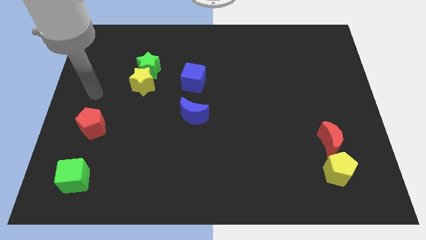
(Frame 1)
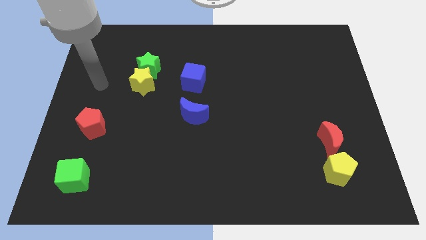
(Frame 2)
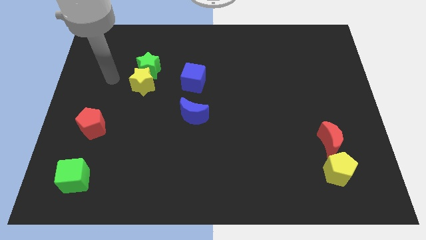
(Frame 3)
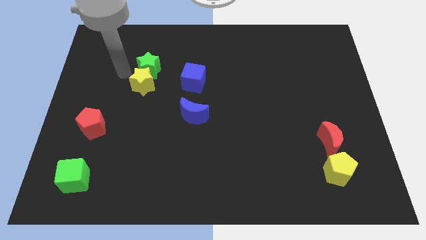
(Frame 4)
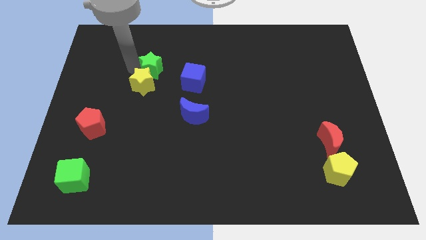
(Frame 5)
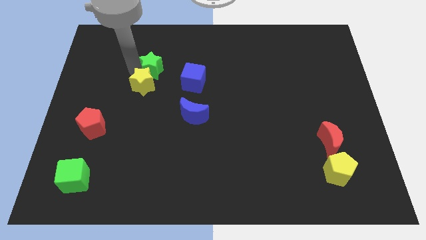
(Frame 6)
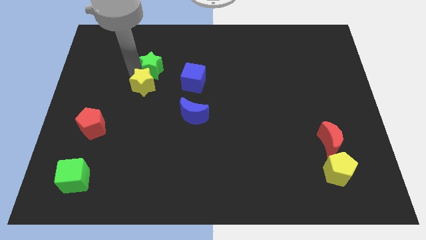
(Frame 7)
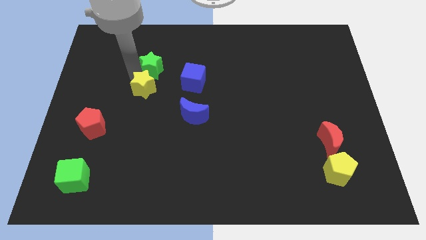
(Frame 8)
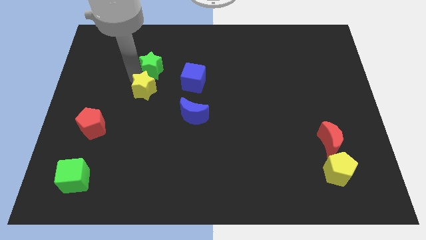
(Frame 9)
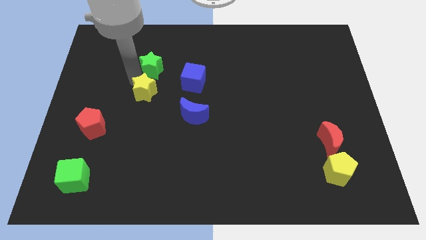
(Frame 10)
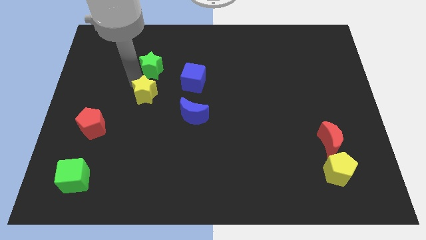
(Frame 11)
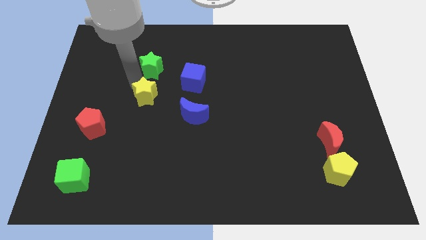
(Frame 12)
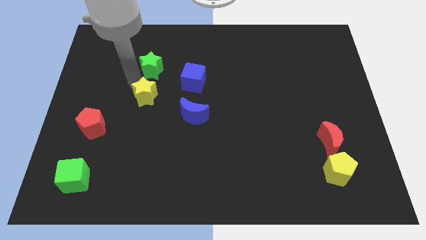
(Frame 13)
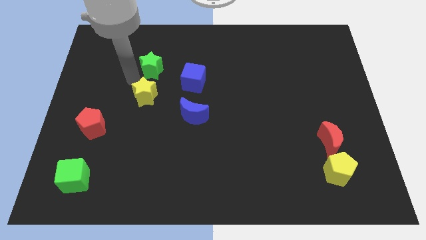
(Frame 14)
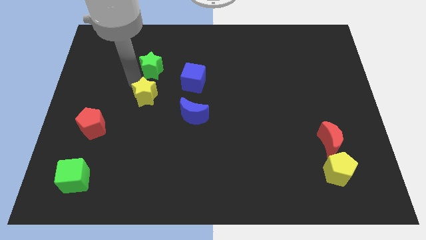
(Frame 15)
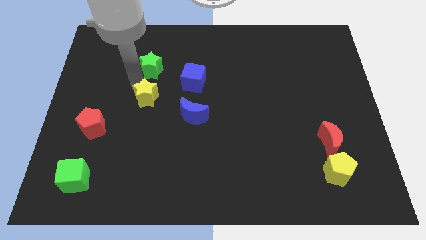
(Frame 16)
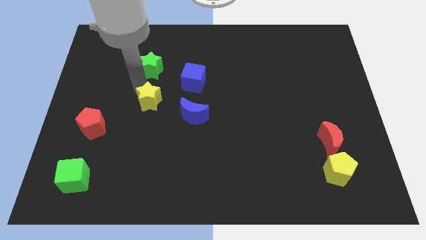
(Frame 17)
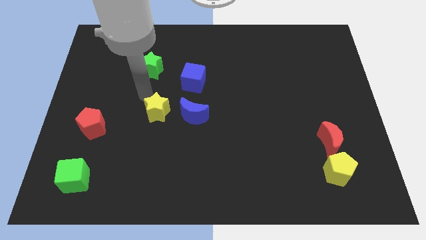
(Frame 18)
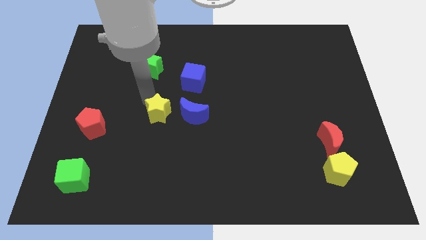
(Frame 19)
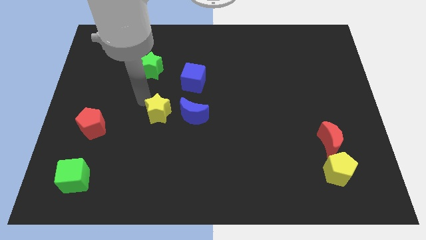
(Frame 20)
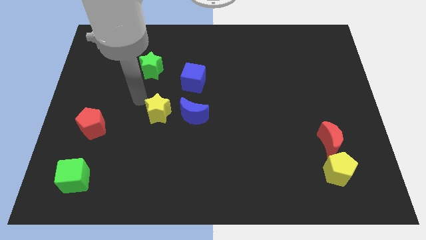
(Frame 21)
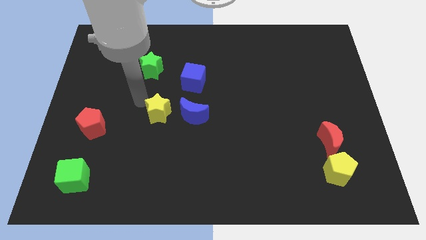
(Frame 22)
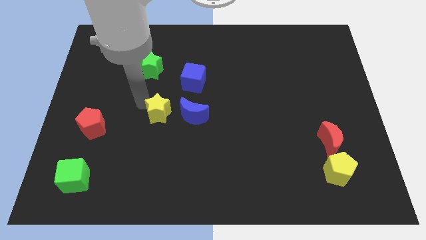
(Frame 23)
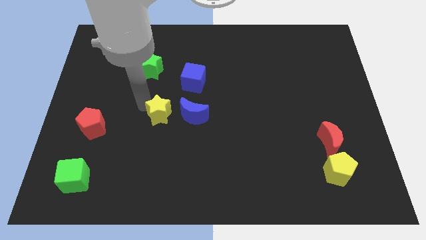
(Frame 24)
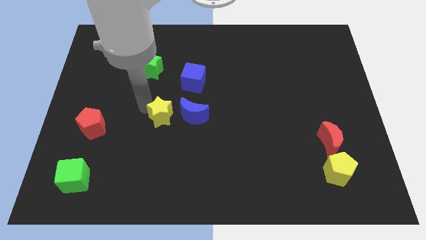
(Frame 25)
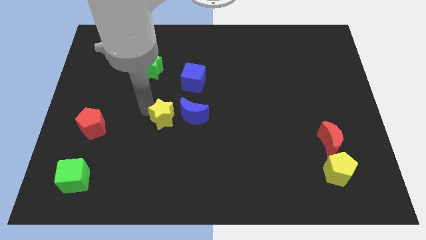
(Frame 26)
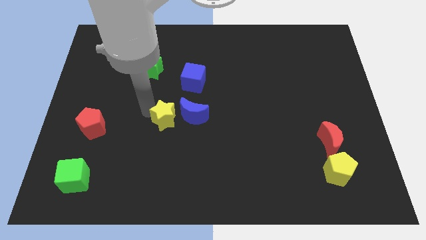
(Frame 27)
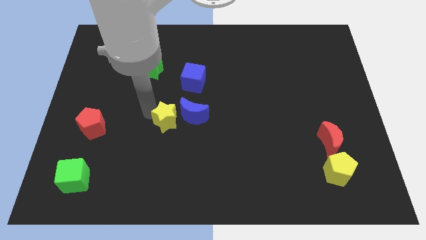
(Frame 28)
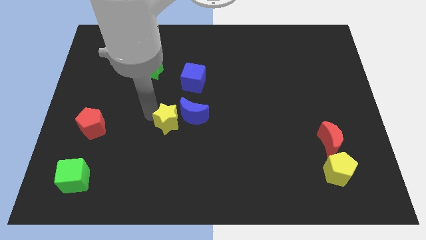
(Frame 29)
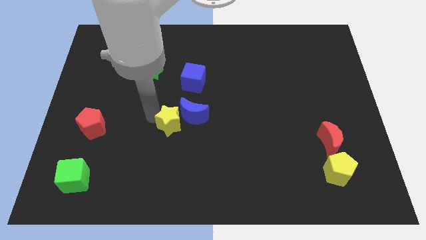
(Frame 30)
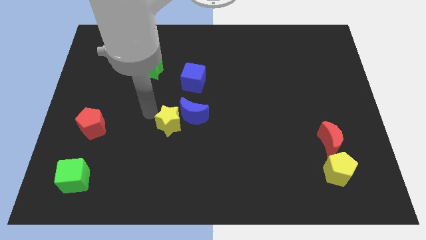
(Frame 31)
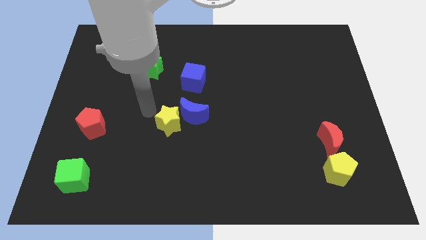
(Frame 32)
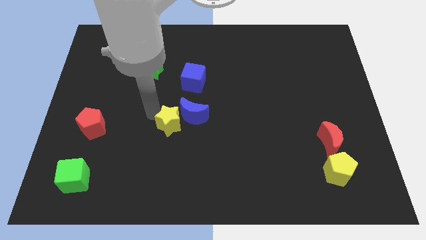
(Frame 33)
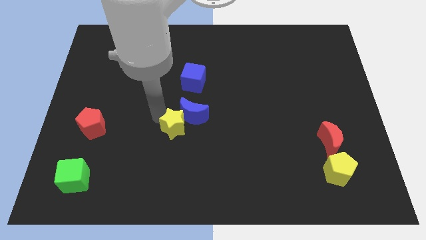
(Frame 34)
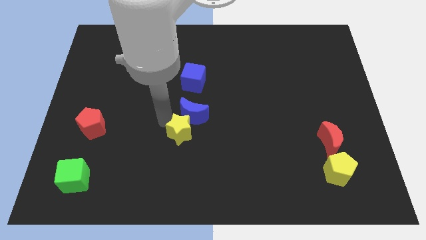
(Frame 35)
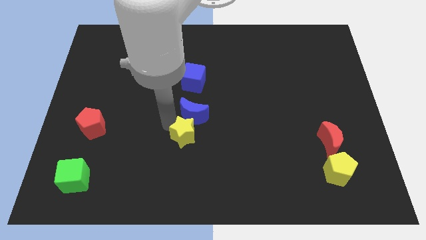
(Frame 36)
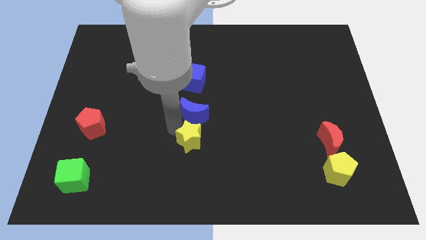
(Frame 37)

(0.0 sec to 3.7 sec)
move the yellow star downwards and right

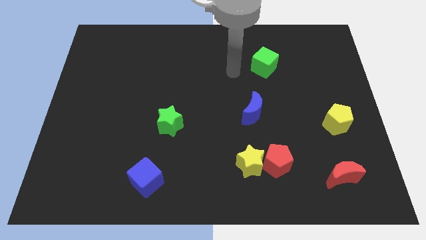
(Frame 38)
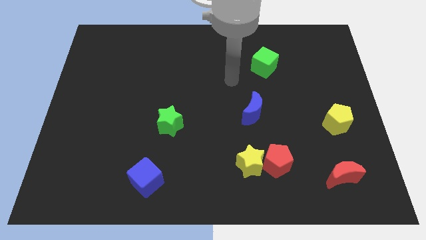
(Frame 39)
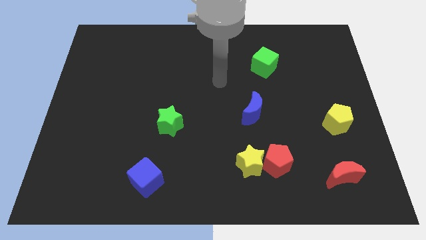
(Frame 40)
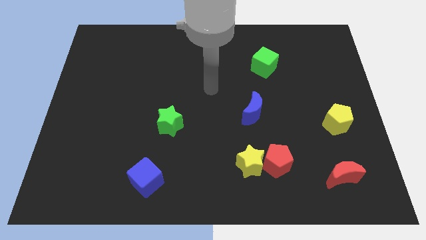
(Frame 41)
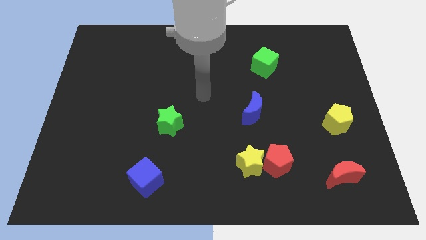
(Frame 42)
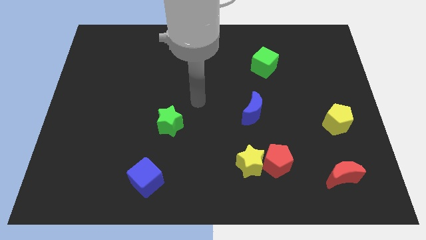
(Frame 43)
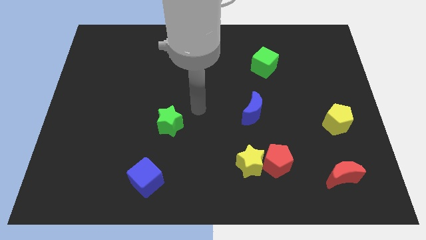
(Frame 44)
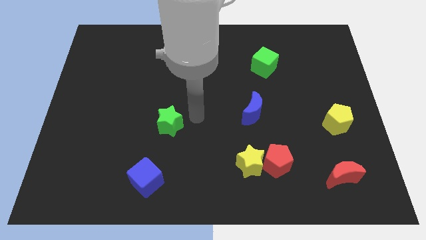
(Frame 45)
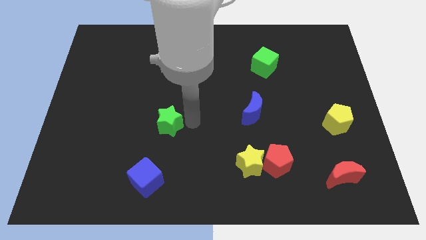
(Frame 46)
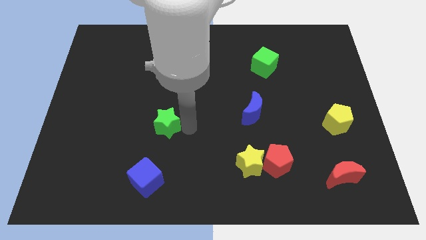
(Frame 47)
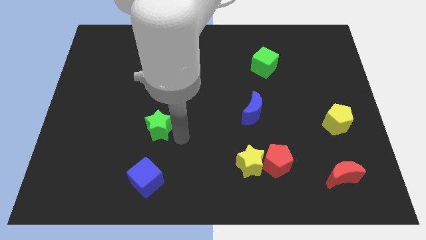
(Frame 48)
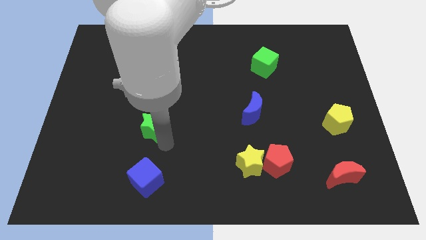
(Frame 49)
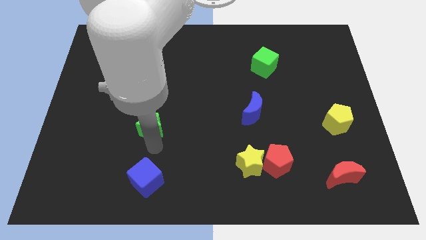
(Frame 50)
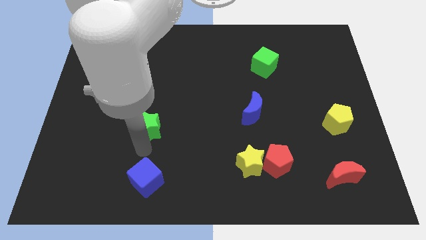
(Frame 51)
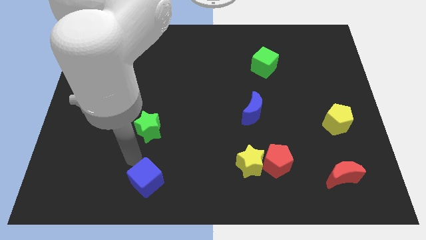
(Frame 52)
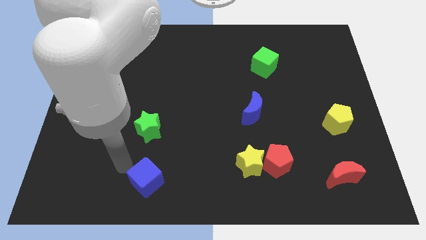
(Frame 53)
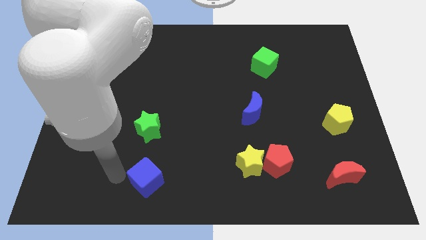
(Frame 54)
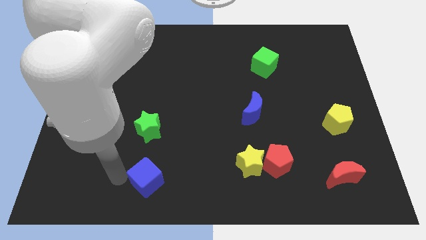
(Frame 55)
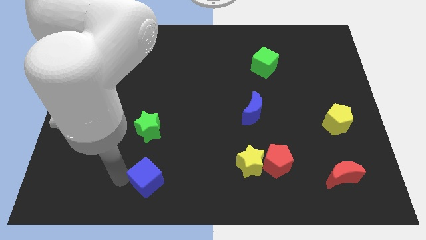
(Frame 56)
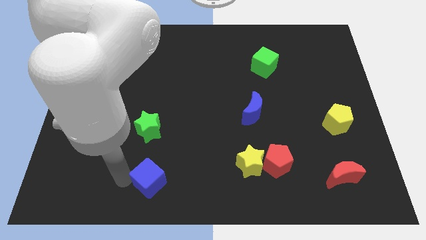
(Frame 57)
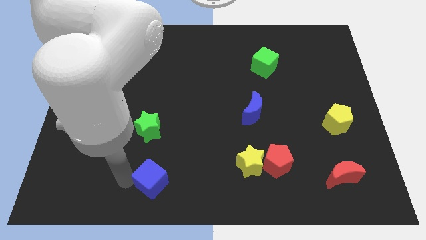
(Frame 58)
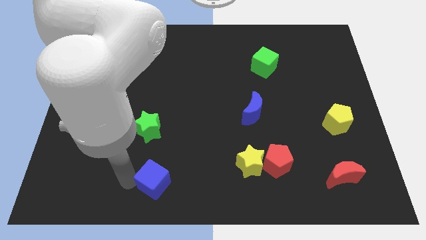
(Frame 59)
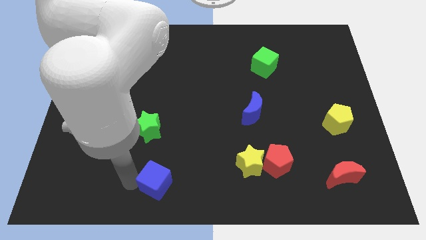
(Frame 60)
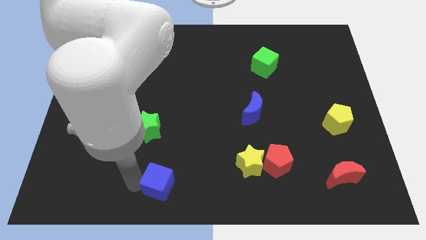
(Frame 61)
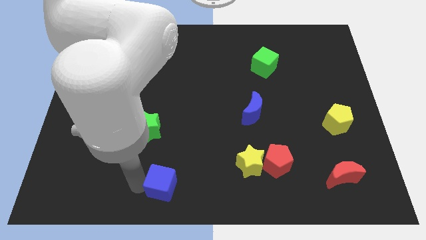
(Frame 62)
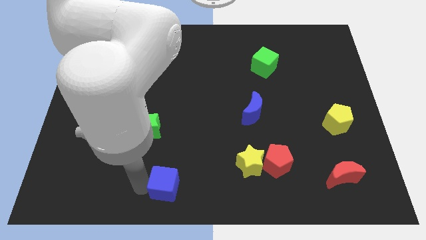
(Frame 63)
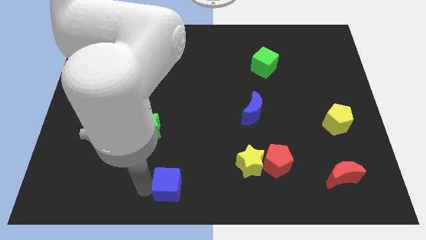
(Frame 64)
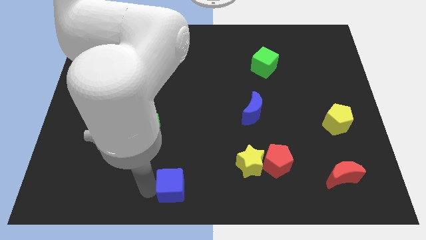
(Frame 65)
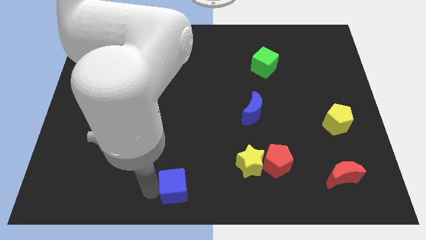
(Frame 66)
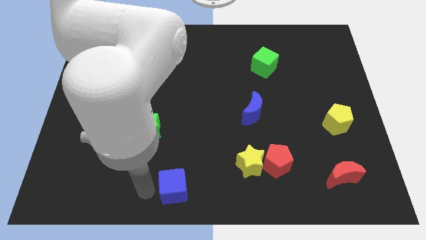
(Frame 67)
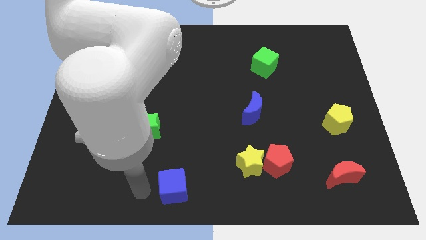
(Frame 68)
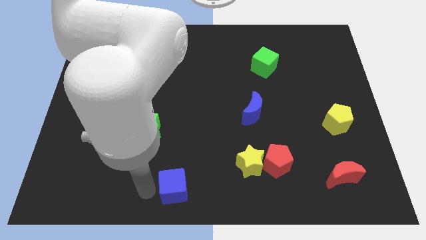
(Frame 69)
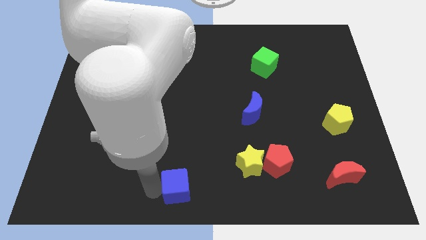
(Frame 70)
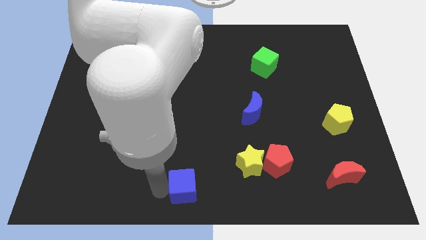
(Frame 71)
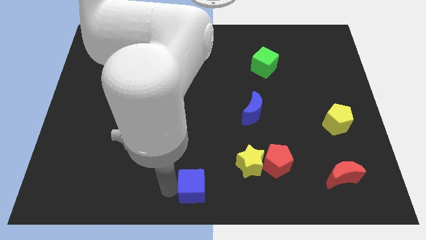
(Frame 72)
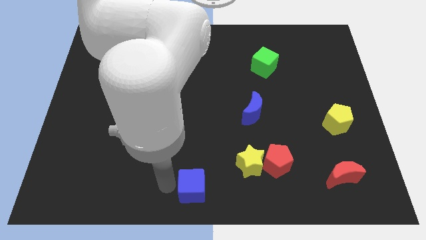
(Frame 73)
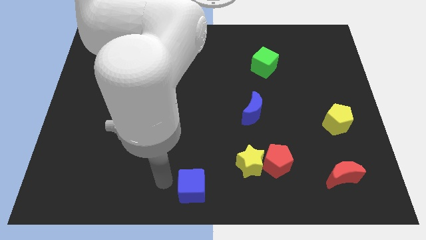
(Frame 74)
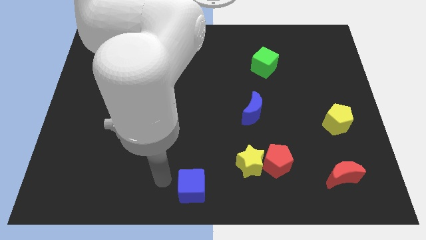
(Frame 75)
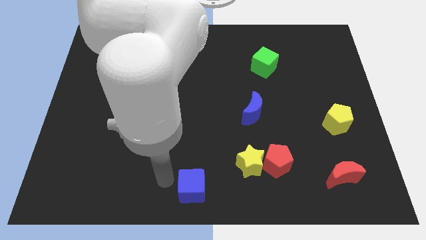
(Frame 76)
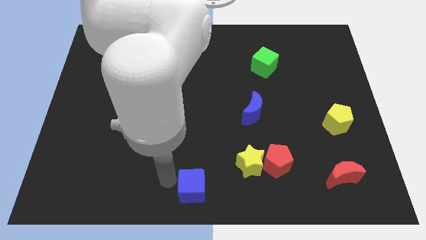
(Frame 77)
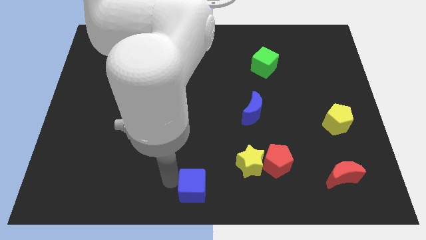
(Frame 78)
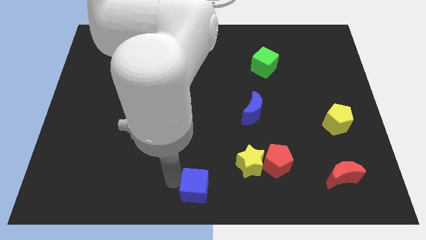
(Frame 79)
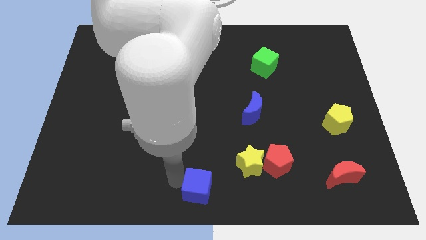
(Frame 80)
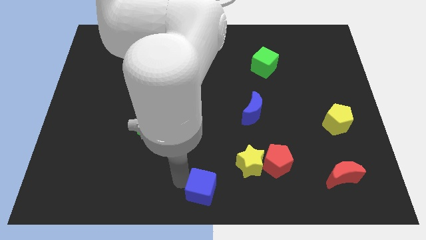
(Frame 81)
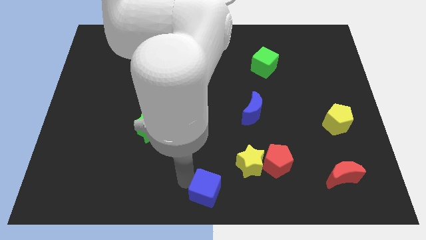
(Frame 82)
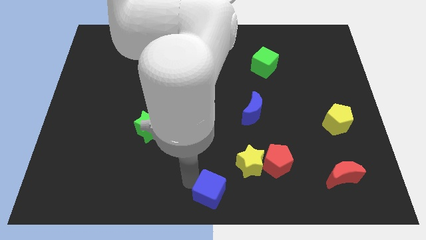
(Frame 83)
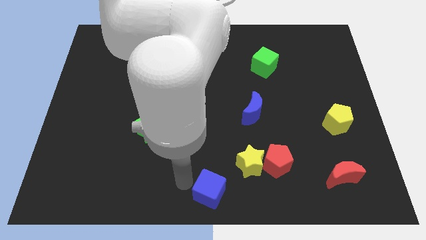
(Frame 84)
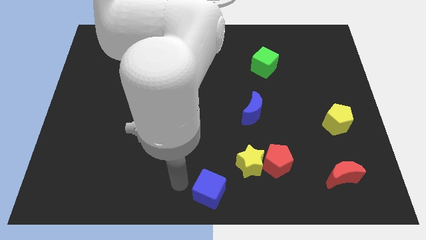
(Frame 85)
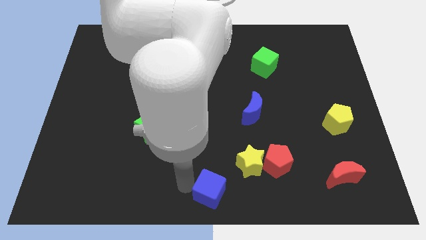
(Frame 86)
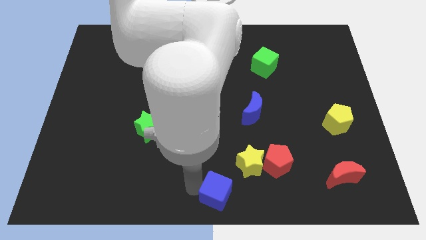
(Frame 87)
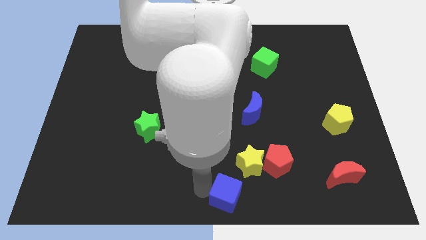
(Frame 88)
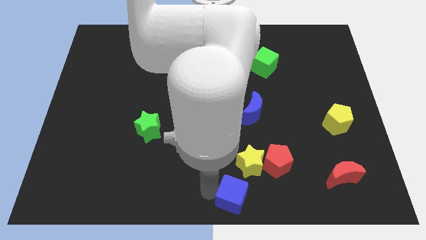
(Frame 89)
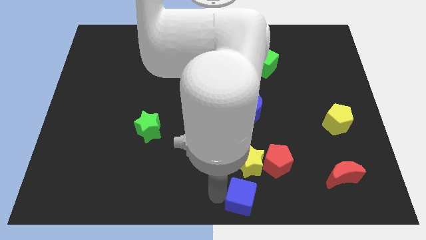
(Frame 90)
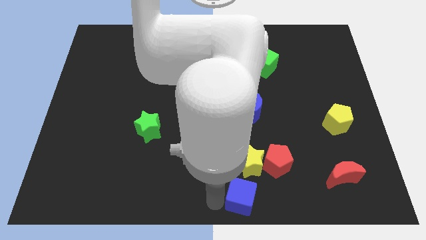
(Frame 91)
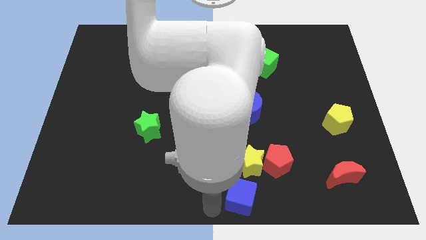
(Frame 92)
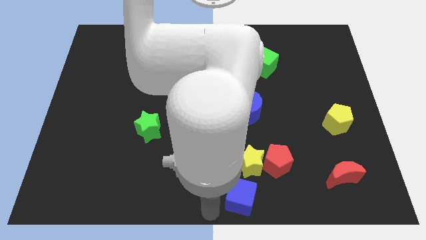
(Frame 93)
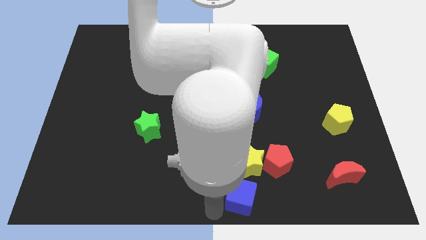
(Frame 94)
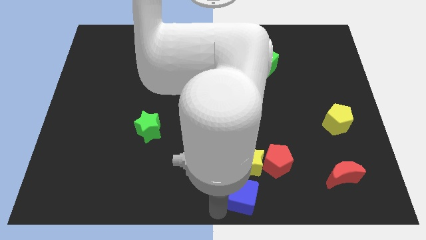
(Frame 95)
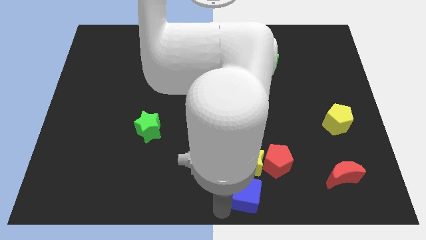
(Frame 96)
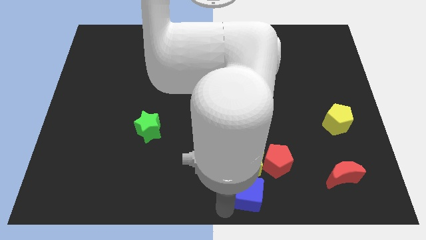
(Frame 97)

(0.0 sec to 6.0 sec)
push the blue cube right
